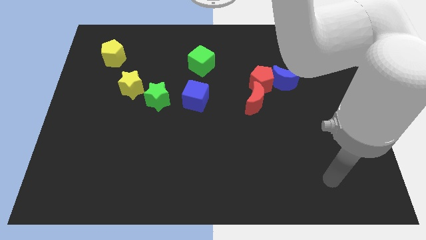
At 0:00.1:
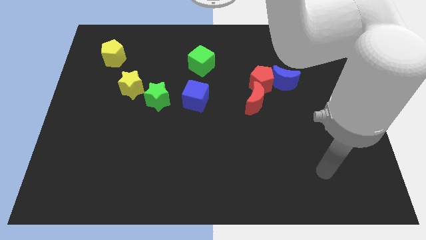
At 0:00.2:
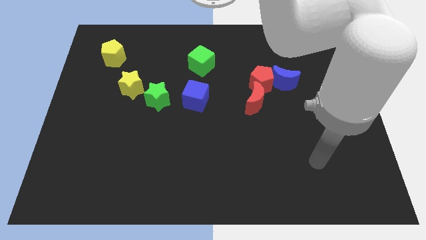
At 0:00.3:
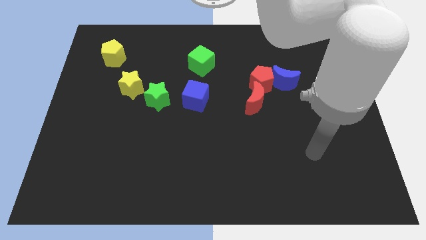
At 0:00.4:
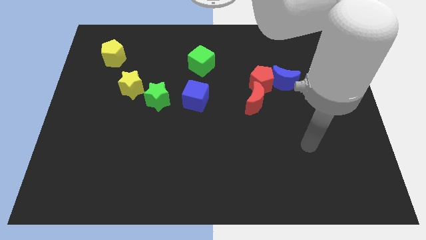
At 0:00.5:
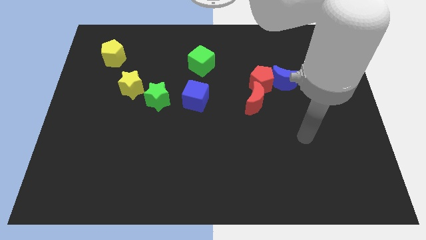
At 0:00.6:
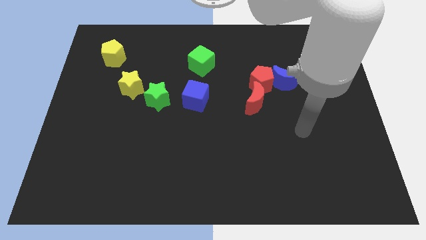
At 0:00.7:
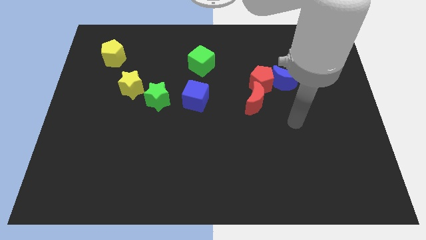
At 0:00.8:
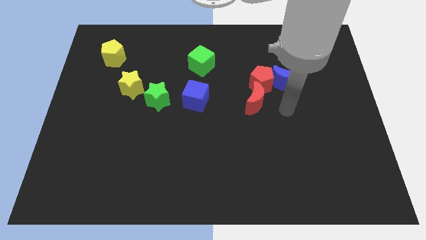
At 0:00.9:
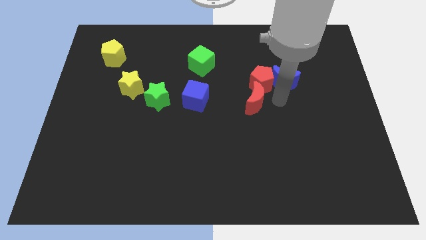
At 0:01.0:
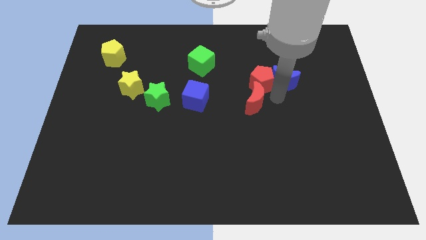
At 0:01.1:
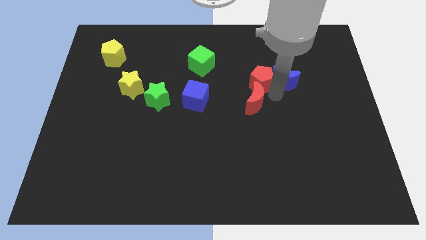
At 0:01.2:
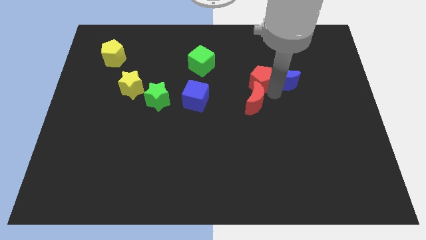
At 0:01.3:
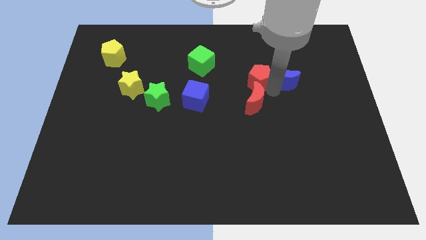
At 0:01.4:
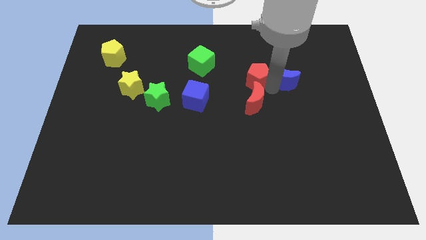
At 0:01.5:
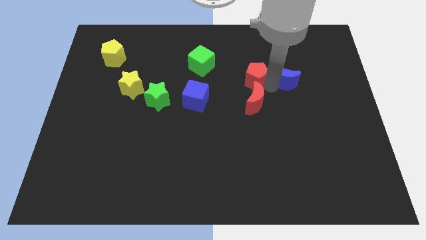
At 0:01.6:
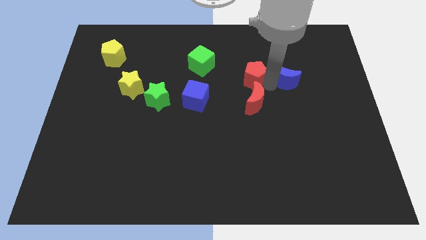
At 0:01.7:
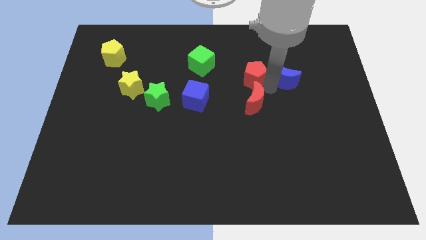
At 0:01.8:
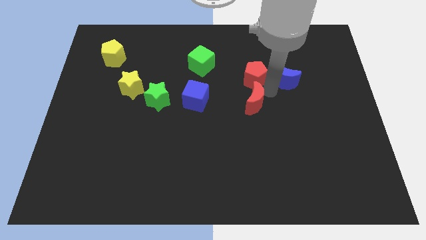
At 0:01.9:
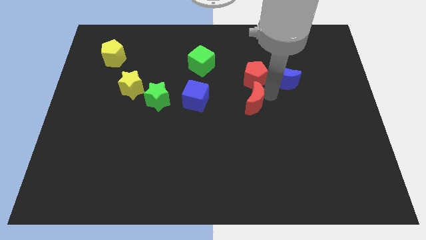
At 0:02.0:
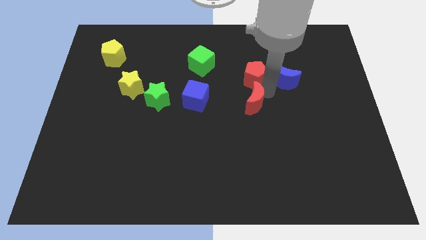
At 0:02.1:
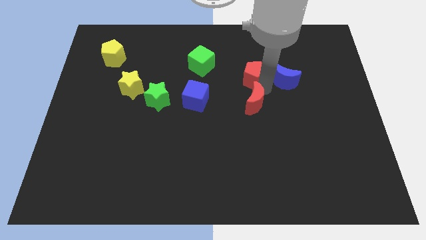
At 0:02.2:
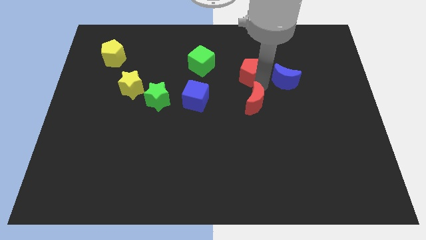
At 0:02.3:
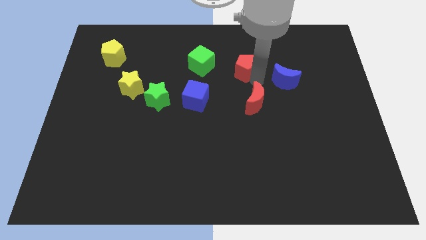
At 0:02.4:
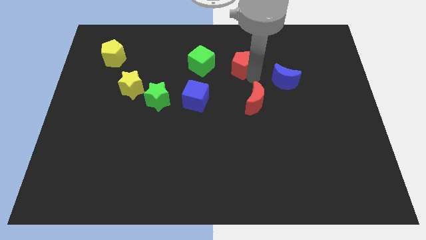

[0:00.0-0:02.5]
move the red pentagon away from the blue moon and red moon

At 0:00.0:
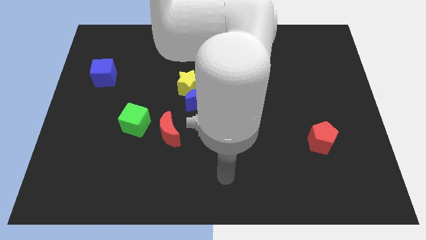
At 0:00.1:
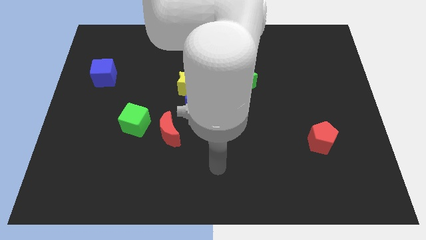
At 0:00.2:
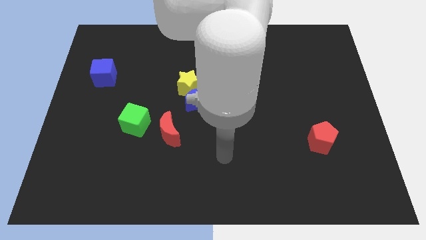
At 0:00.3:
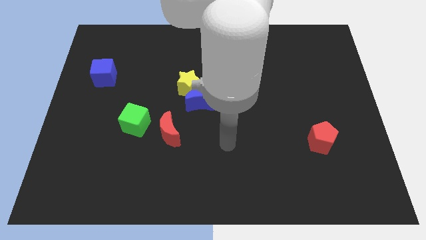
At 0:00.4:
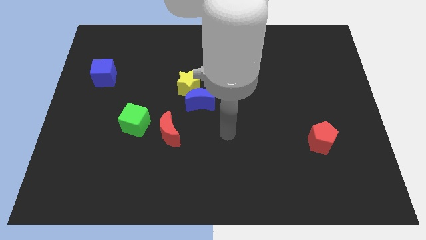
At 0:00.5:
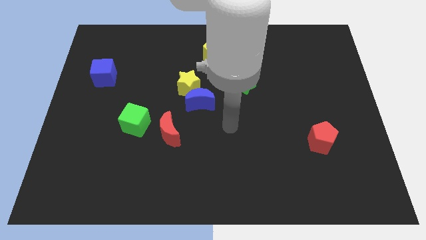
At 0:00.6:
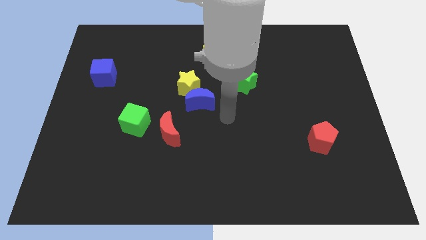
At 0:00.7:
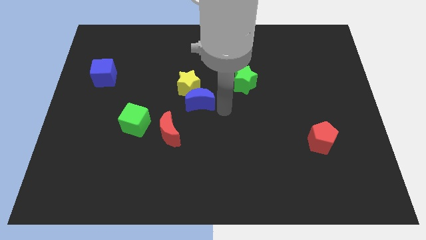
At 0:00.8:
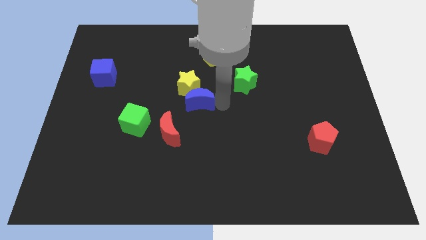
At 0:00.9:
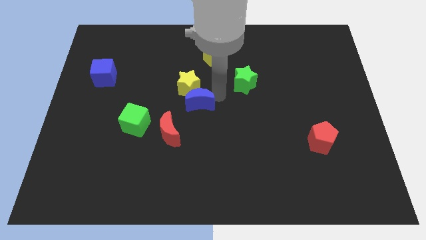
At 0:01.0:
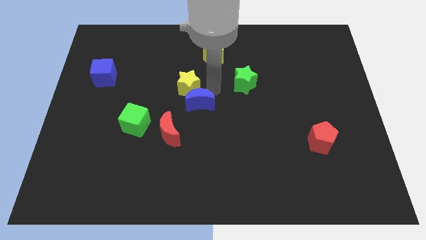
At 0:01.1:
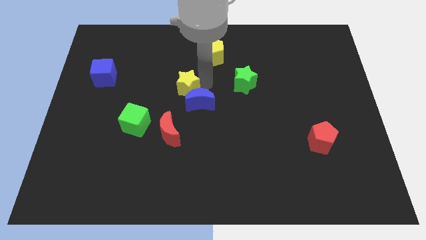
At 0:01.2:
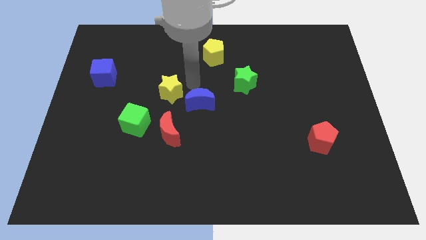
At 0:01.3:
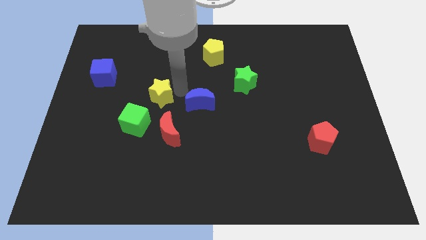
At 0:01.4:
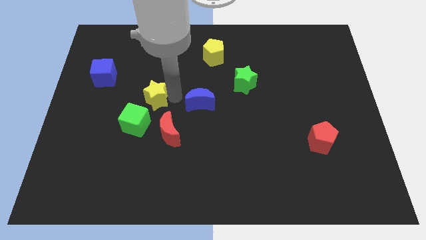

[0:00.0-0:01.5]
move the blue moon away from the yellow star

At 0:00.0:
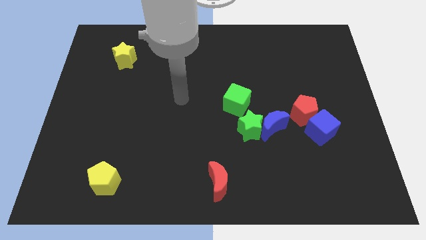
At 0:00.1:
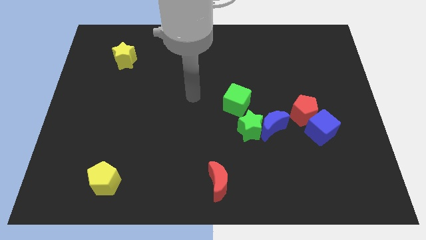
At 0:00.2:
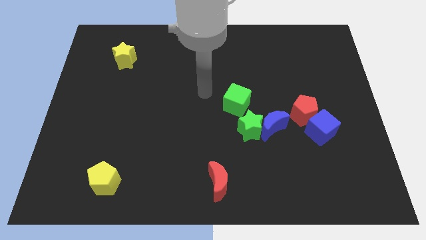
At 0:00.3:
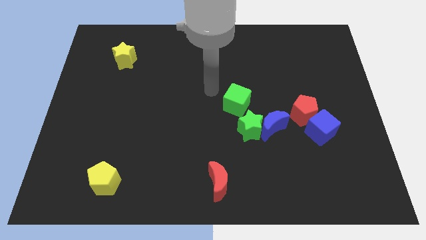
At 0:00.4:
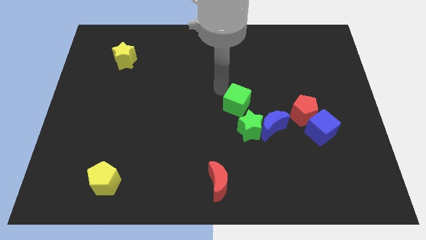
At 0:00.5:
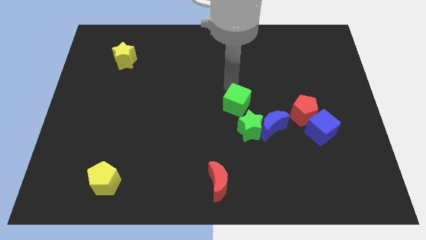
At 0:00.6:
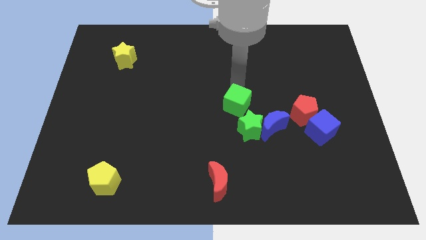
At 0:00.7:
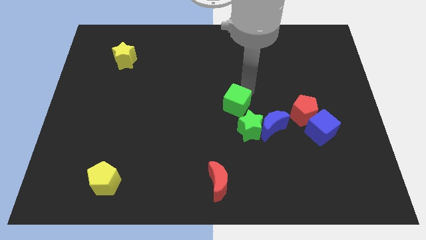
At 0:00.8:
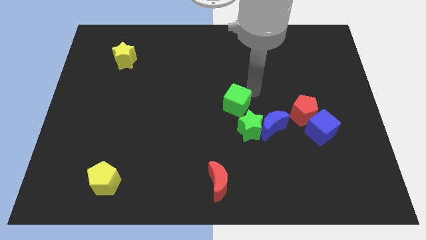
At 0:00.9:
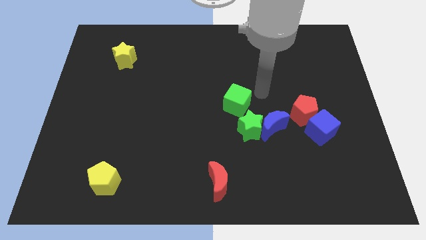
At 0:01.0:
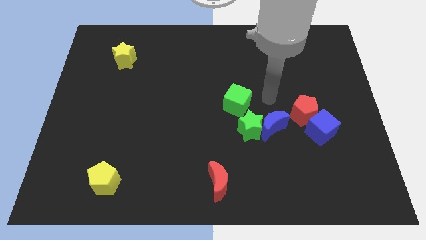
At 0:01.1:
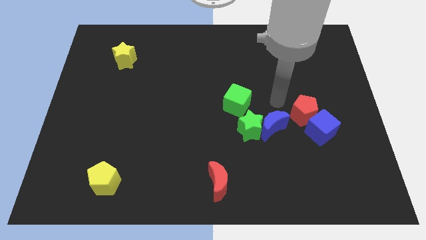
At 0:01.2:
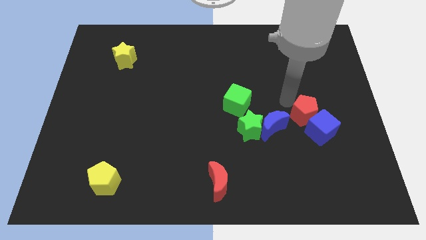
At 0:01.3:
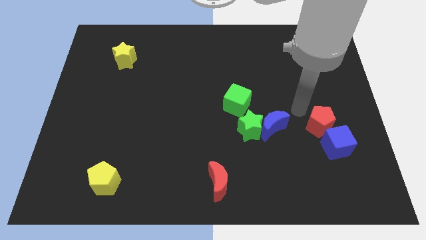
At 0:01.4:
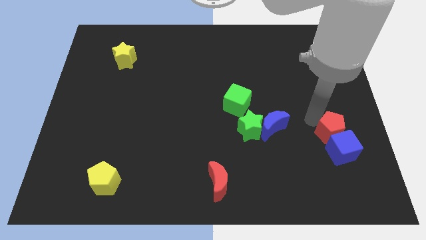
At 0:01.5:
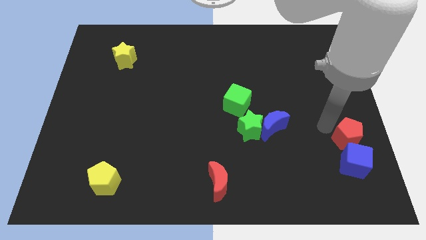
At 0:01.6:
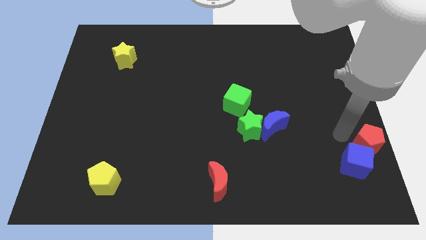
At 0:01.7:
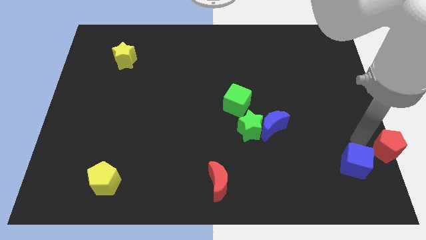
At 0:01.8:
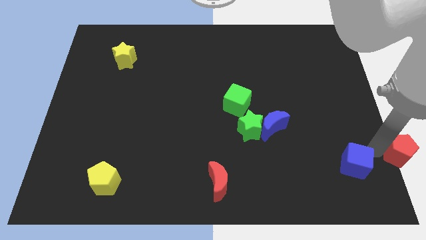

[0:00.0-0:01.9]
separate the blue cube from the red pentagon

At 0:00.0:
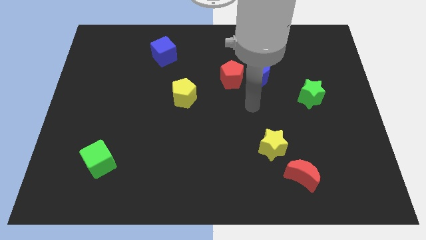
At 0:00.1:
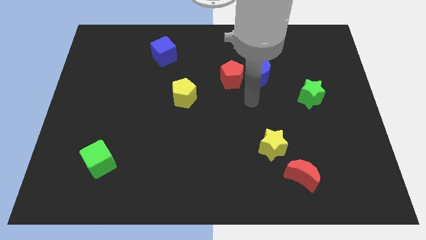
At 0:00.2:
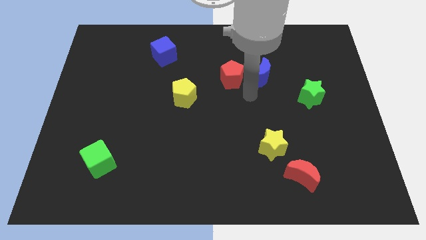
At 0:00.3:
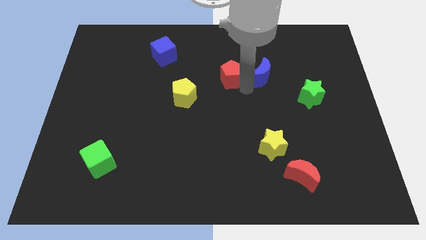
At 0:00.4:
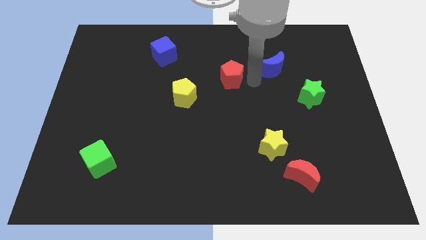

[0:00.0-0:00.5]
separate the red pentagon from the blue moon

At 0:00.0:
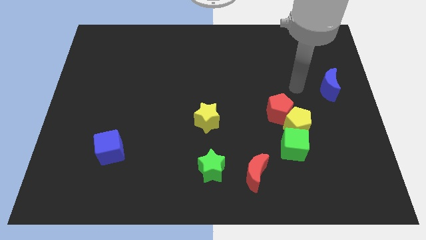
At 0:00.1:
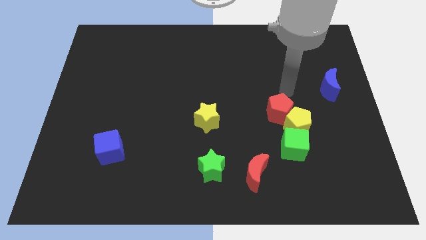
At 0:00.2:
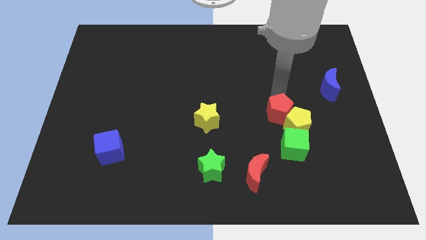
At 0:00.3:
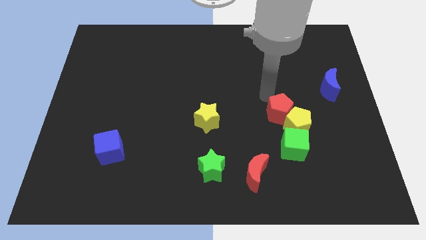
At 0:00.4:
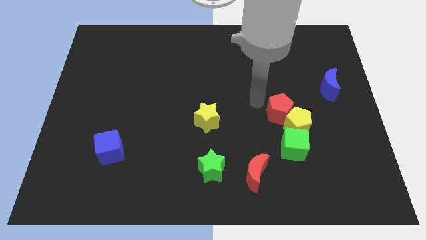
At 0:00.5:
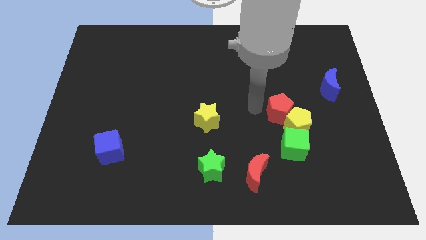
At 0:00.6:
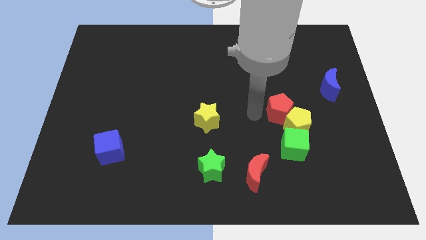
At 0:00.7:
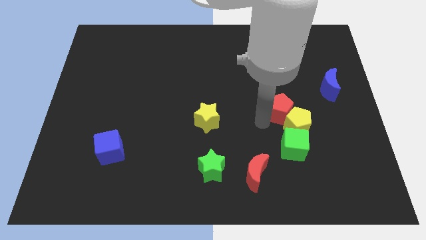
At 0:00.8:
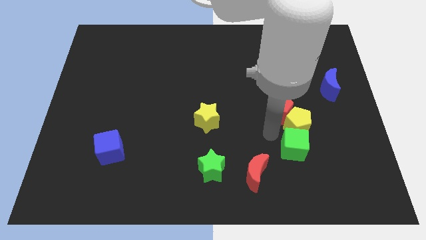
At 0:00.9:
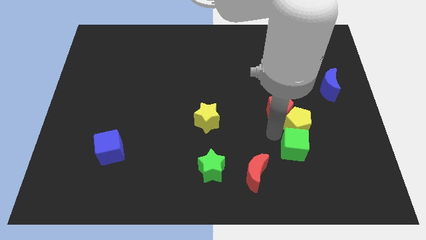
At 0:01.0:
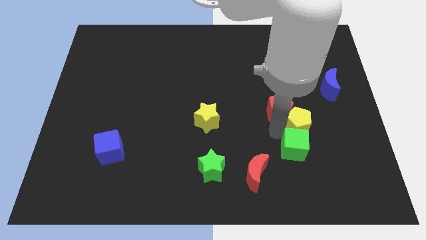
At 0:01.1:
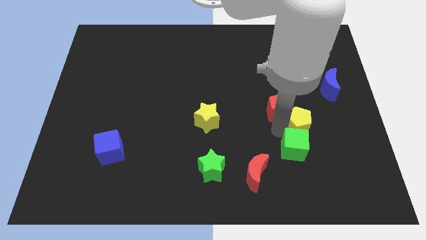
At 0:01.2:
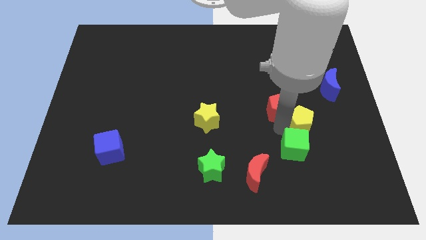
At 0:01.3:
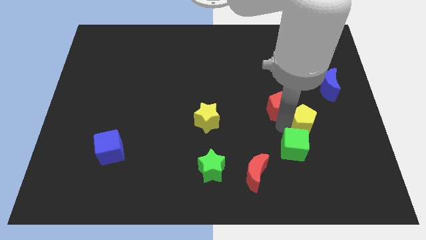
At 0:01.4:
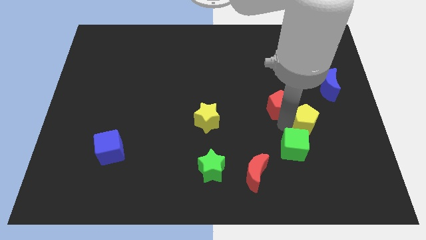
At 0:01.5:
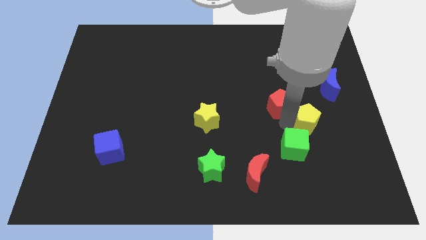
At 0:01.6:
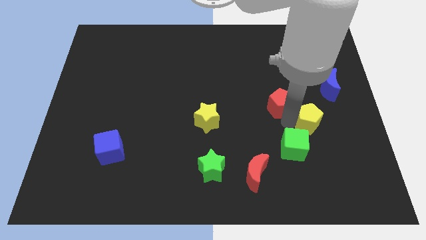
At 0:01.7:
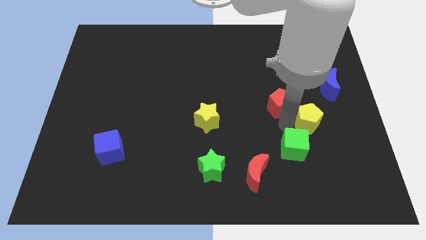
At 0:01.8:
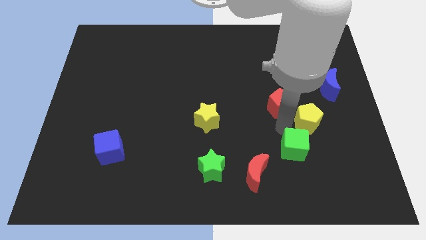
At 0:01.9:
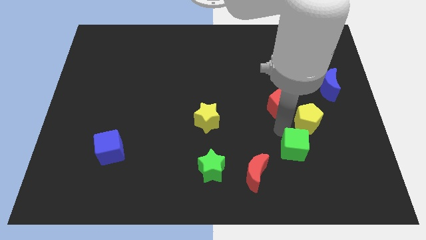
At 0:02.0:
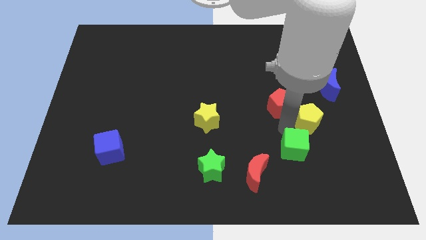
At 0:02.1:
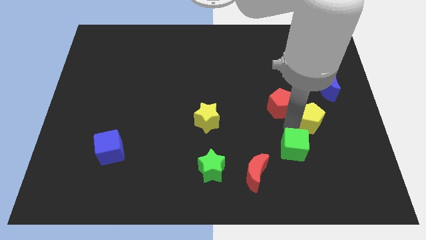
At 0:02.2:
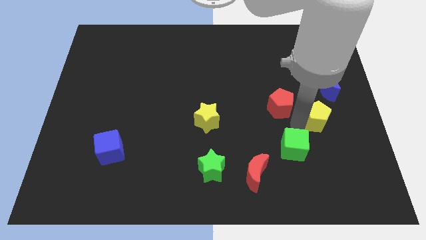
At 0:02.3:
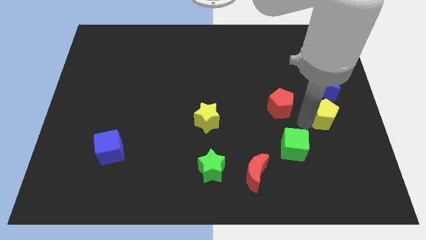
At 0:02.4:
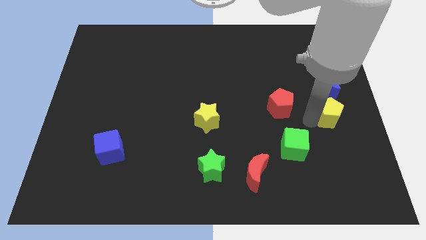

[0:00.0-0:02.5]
move the yellow pentagon away from the red pentagon and green cube

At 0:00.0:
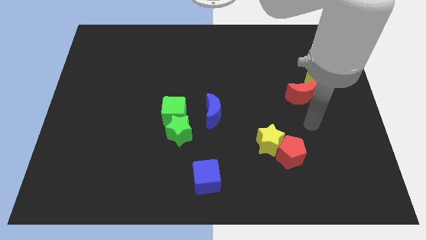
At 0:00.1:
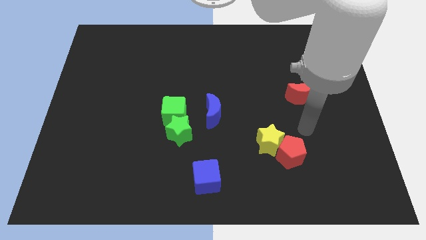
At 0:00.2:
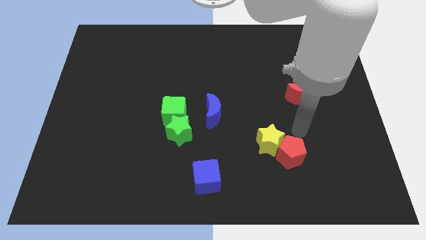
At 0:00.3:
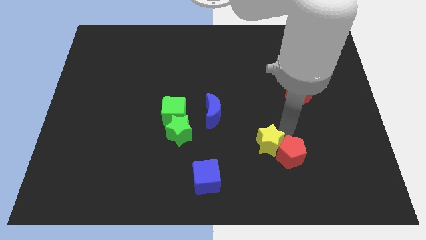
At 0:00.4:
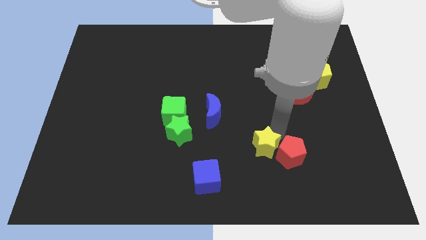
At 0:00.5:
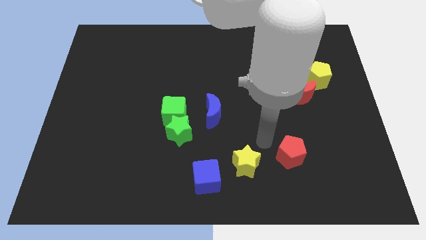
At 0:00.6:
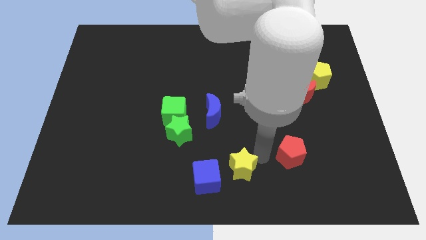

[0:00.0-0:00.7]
pull the red pentagon apart from the yellow star
